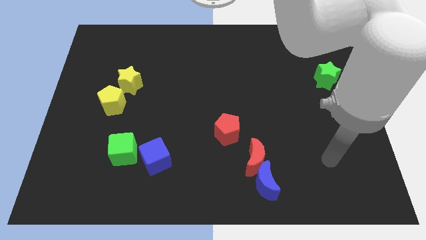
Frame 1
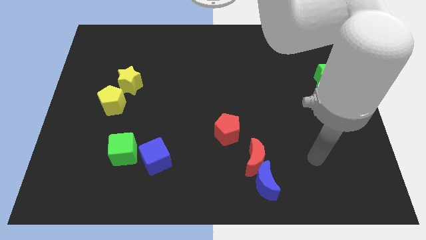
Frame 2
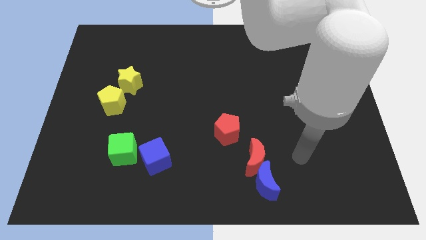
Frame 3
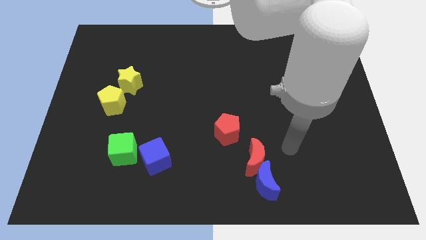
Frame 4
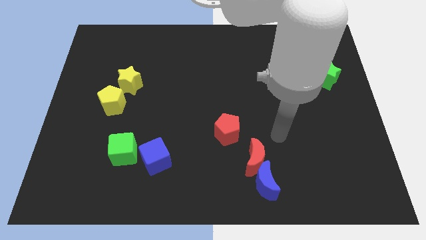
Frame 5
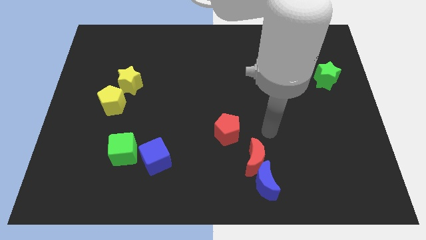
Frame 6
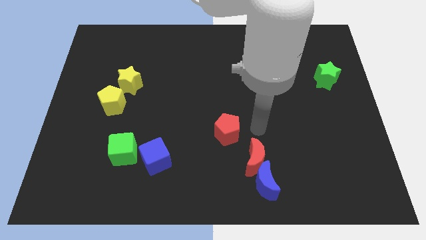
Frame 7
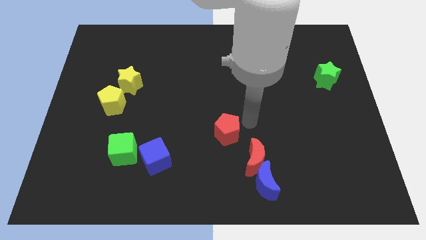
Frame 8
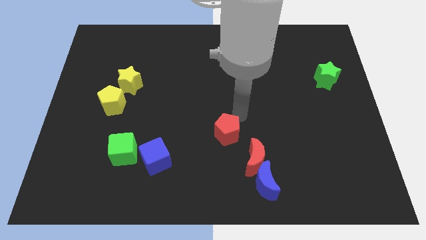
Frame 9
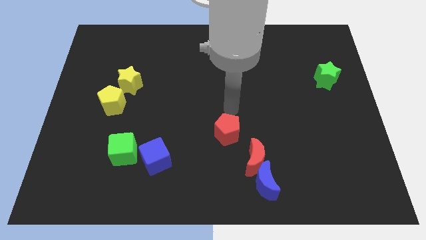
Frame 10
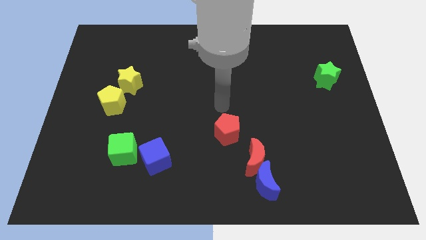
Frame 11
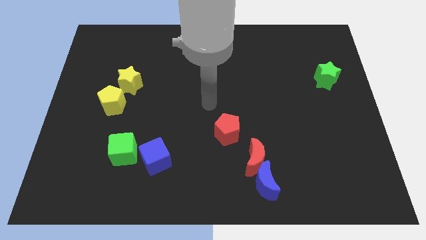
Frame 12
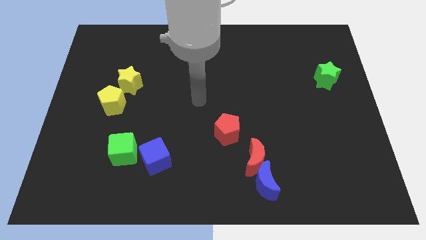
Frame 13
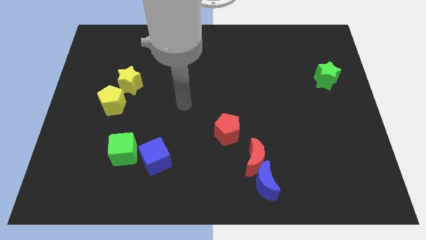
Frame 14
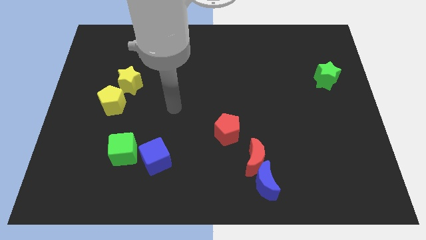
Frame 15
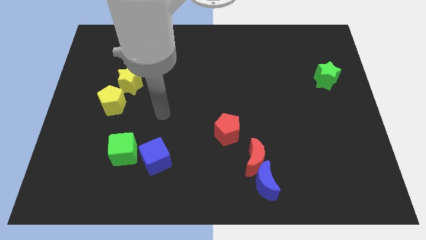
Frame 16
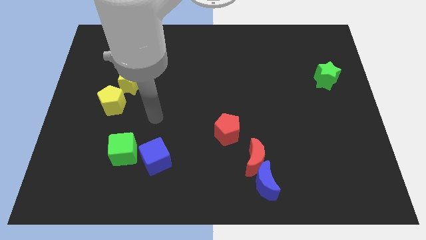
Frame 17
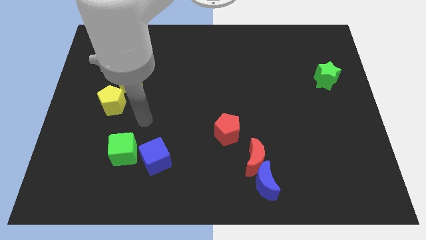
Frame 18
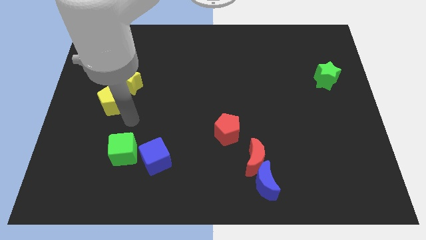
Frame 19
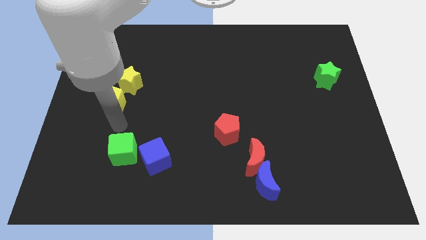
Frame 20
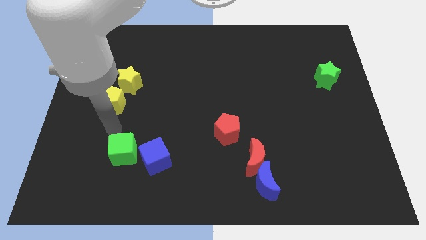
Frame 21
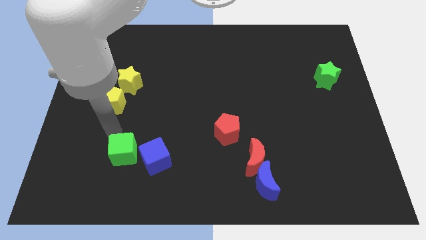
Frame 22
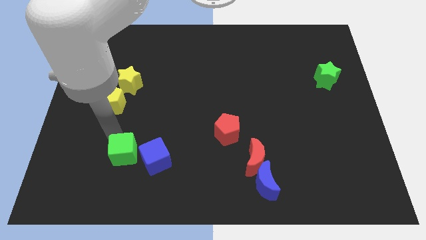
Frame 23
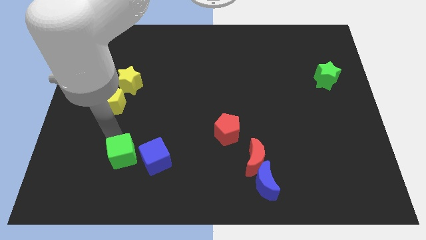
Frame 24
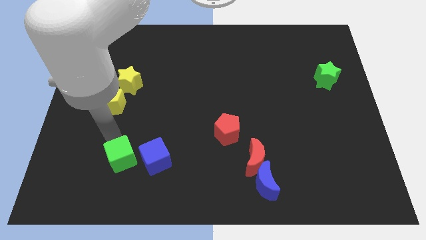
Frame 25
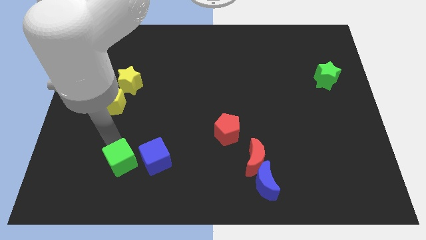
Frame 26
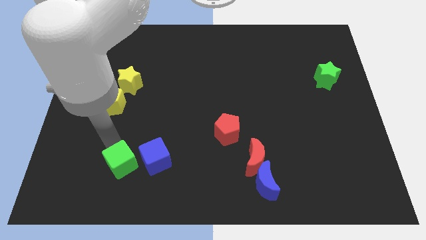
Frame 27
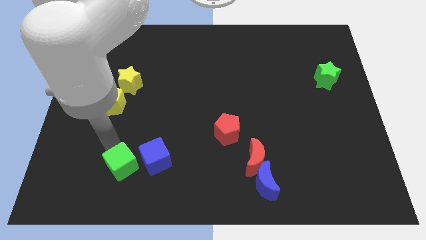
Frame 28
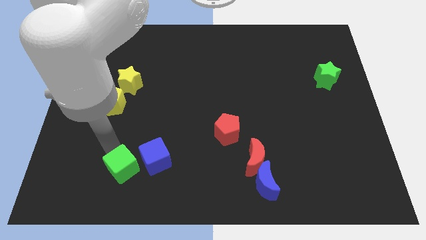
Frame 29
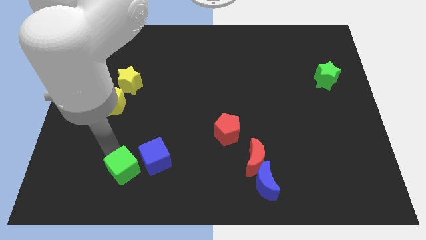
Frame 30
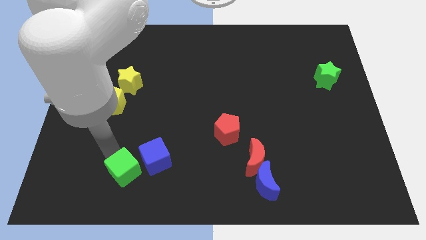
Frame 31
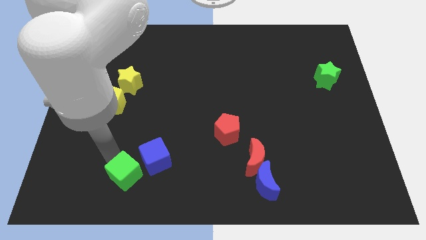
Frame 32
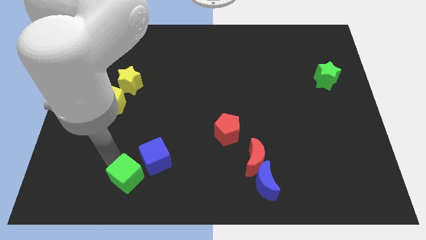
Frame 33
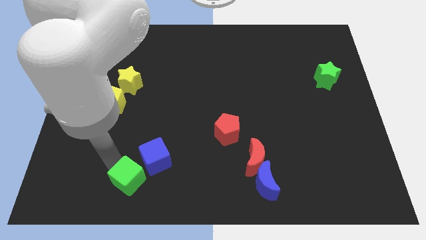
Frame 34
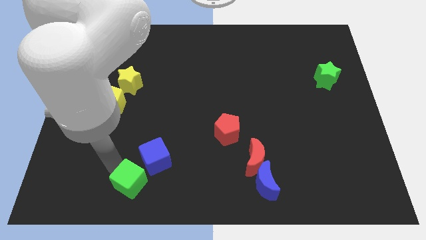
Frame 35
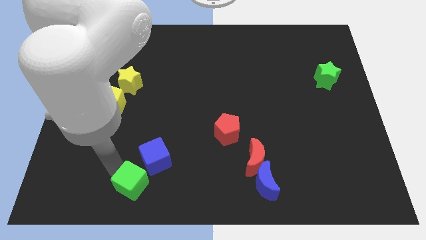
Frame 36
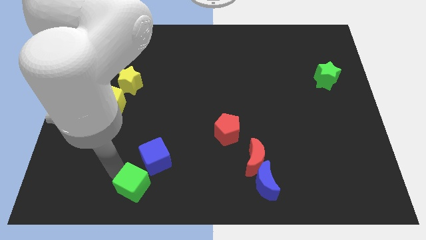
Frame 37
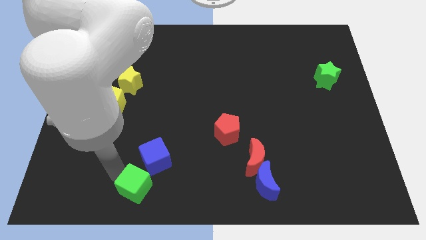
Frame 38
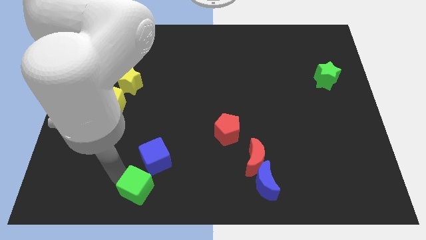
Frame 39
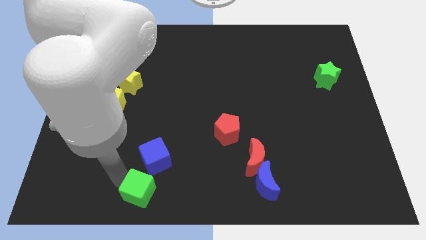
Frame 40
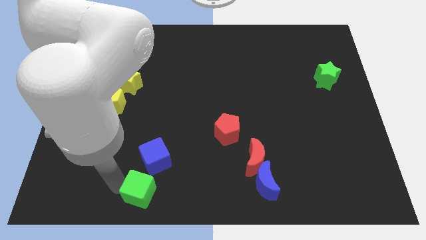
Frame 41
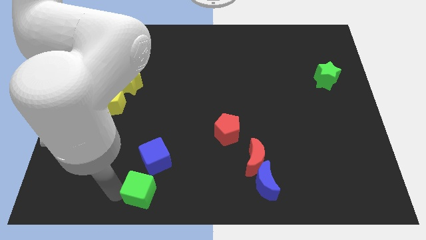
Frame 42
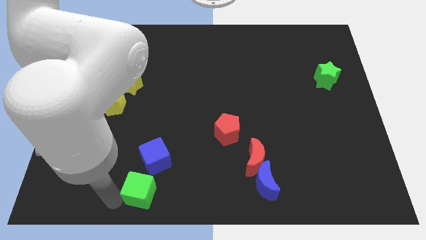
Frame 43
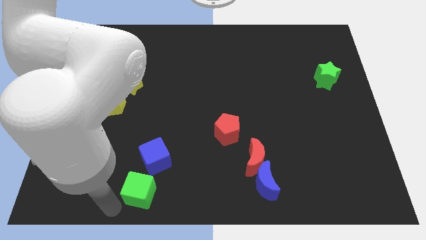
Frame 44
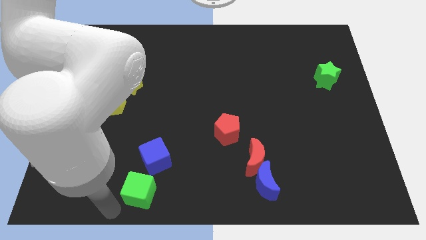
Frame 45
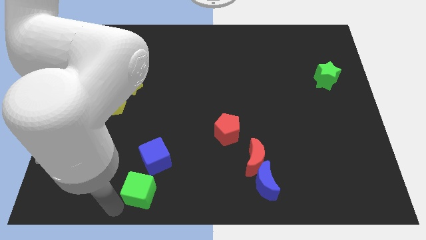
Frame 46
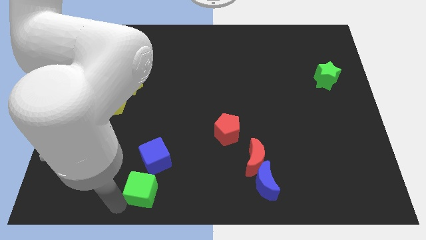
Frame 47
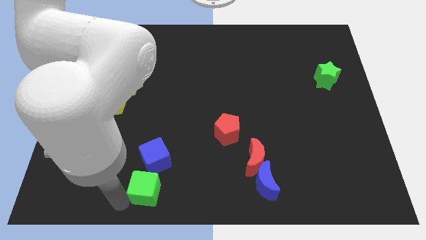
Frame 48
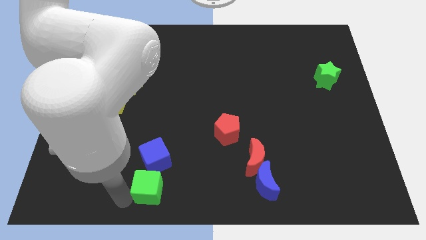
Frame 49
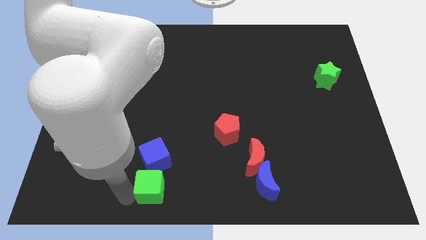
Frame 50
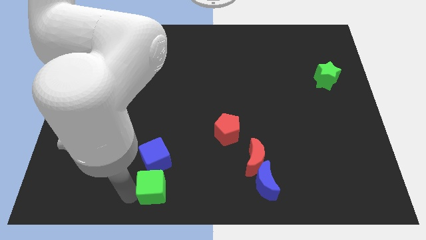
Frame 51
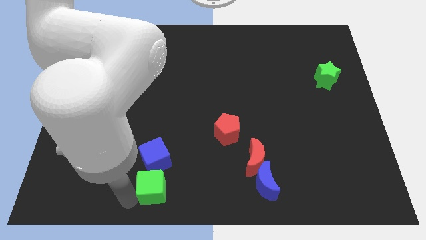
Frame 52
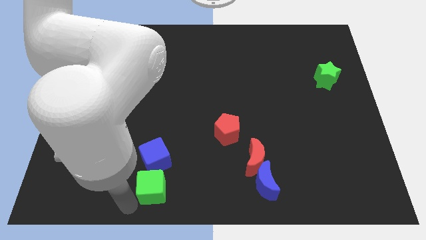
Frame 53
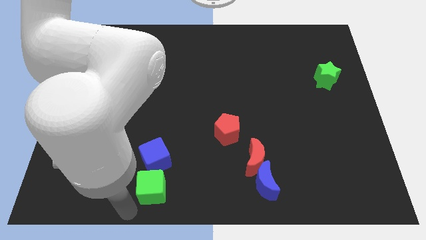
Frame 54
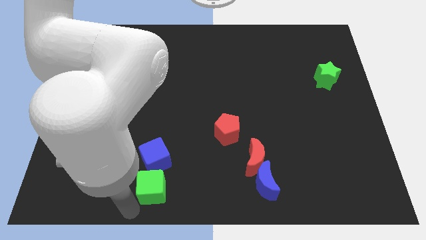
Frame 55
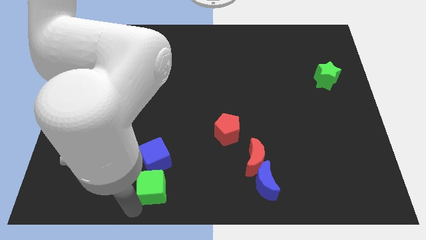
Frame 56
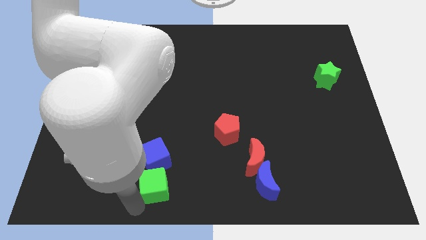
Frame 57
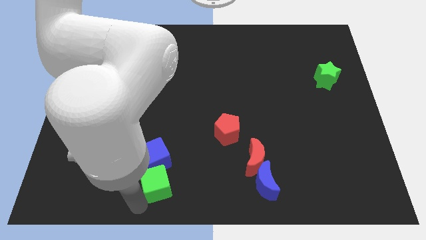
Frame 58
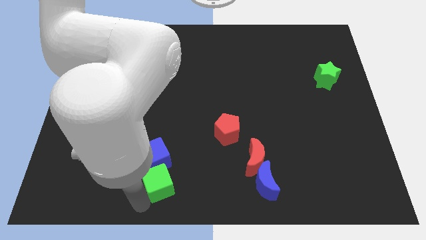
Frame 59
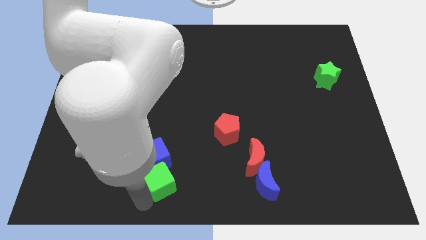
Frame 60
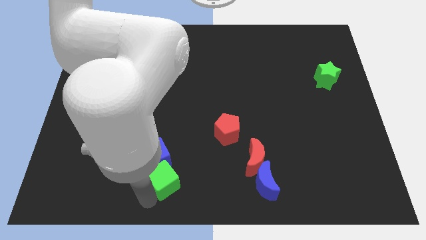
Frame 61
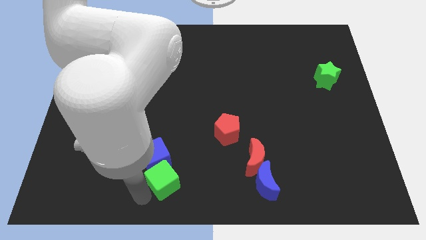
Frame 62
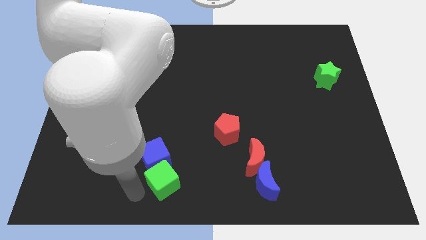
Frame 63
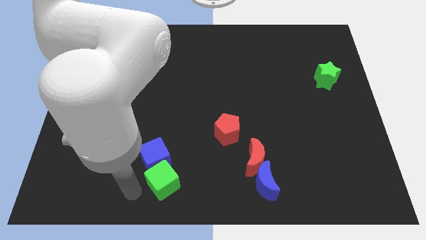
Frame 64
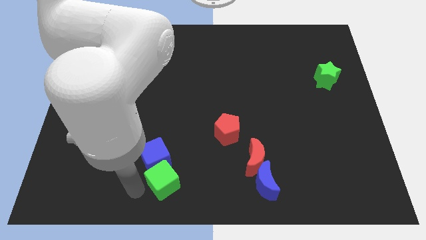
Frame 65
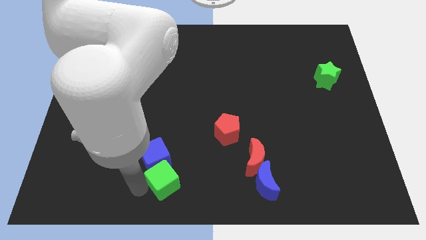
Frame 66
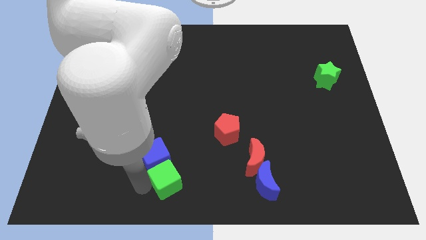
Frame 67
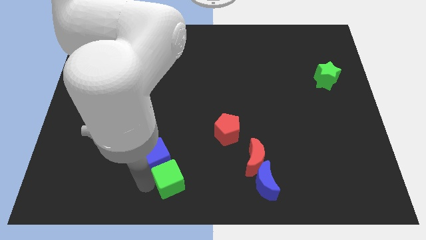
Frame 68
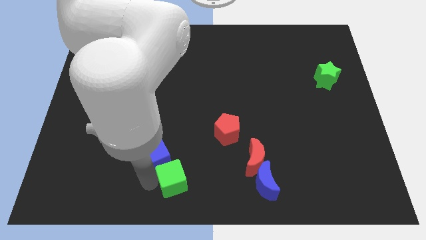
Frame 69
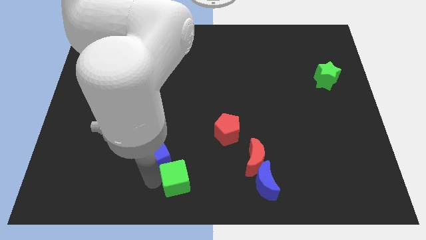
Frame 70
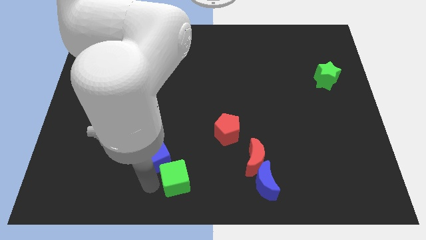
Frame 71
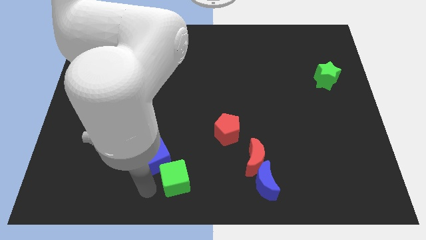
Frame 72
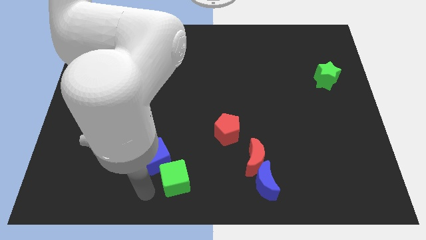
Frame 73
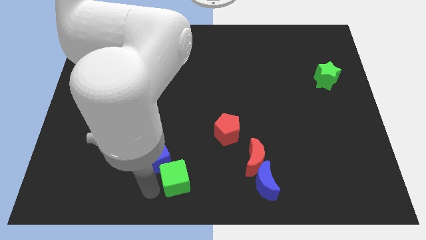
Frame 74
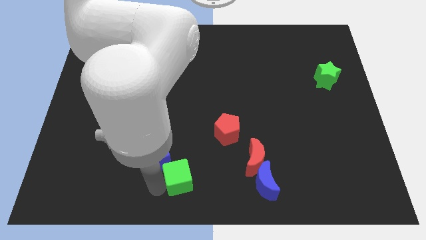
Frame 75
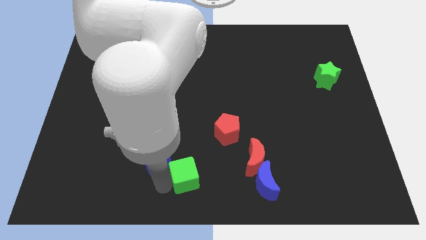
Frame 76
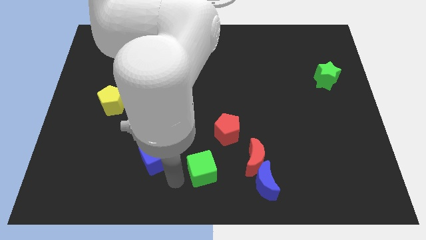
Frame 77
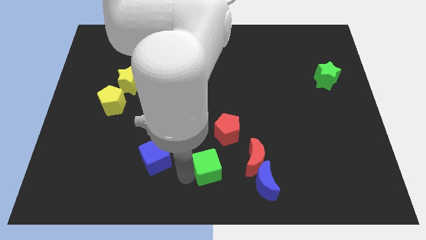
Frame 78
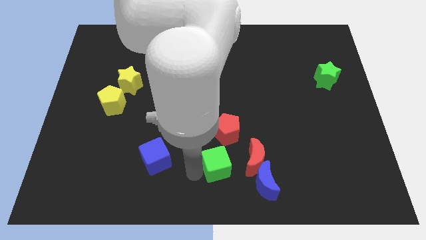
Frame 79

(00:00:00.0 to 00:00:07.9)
put the green cube diagonally up and to the left of the blue moon
